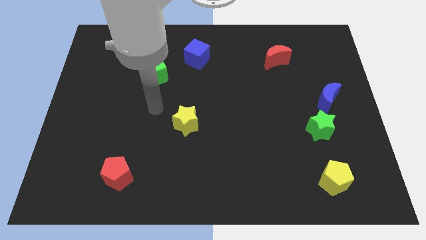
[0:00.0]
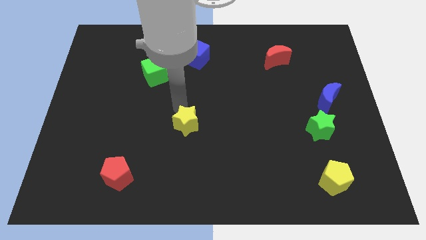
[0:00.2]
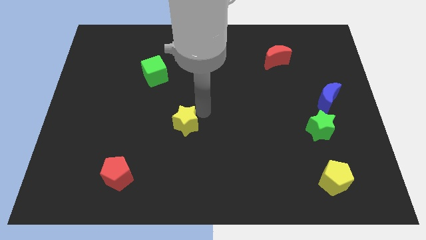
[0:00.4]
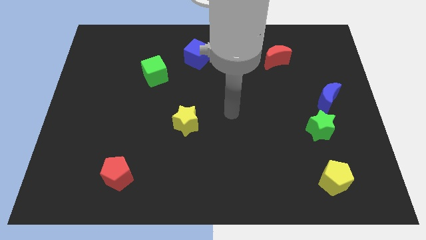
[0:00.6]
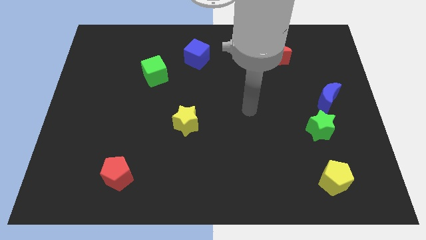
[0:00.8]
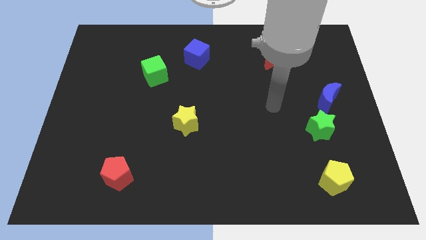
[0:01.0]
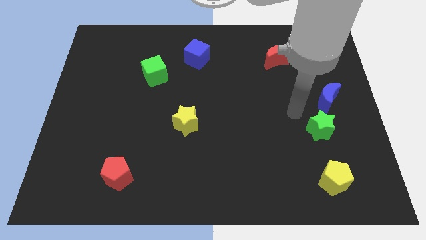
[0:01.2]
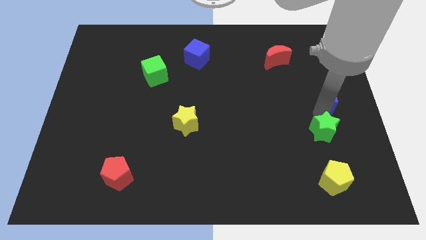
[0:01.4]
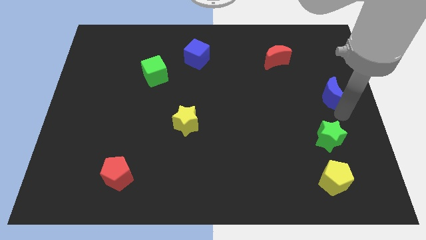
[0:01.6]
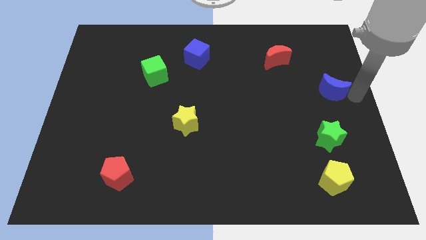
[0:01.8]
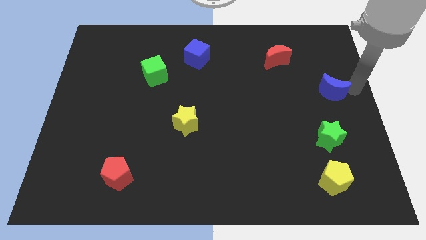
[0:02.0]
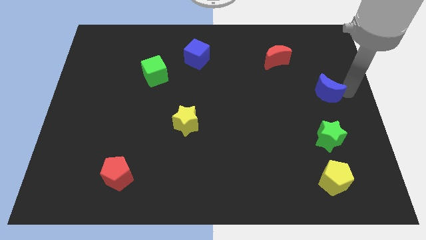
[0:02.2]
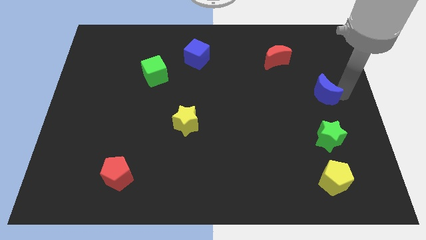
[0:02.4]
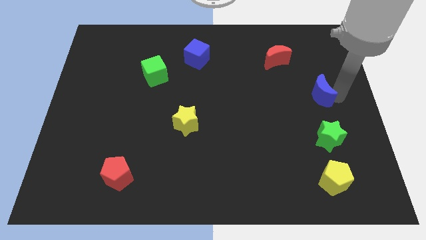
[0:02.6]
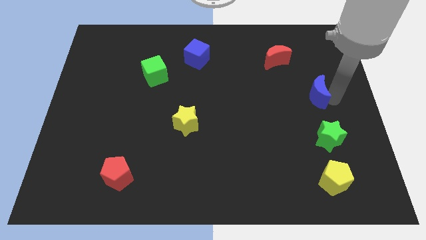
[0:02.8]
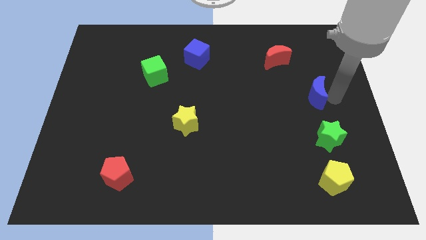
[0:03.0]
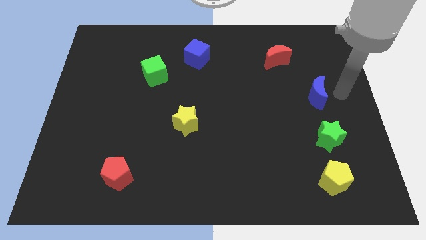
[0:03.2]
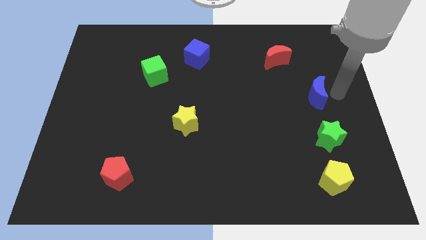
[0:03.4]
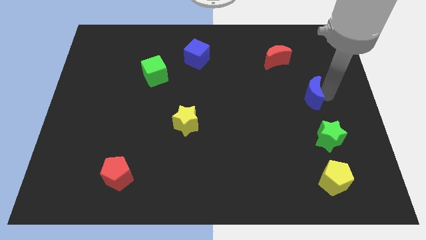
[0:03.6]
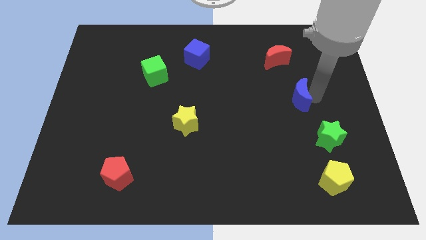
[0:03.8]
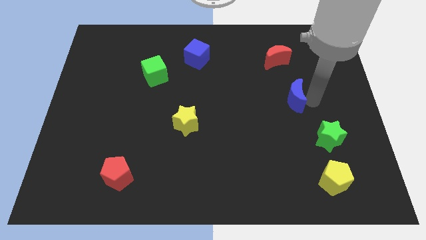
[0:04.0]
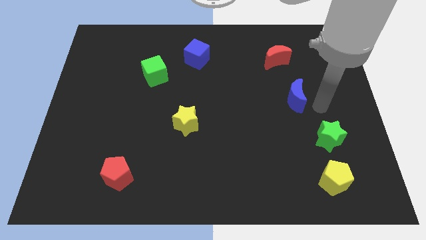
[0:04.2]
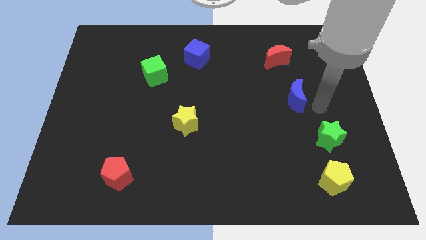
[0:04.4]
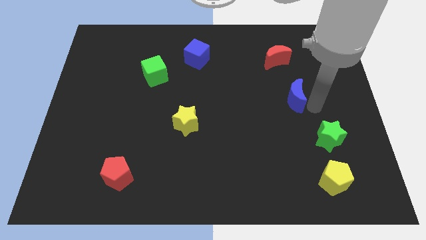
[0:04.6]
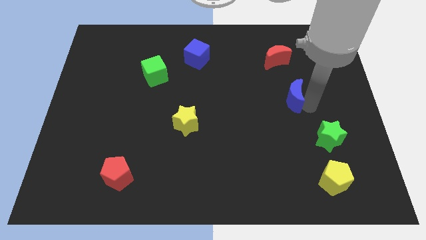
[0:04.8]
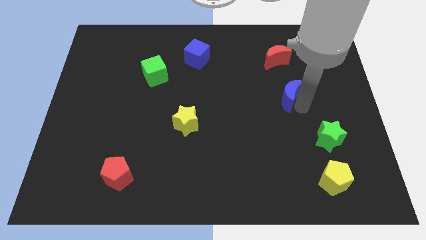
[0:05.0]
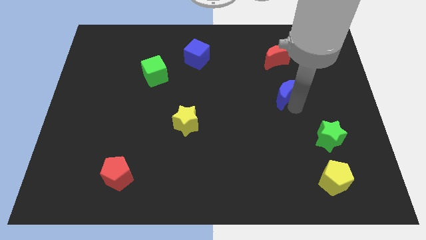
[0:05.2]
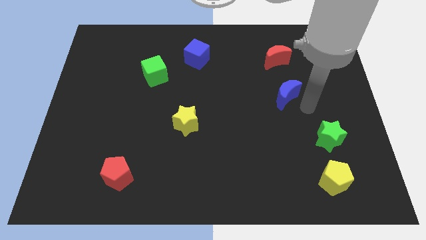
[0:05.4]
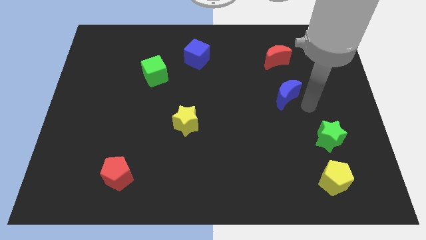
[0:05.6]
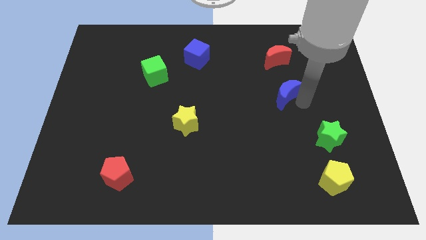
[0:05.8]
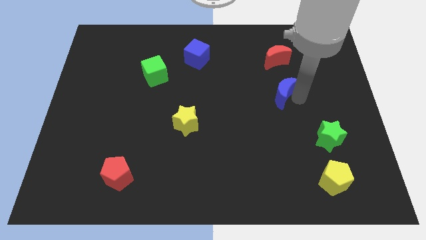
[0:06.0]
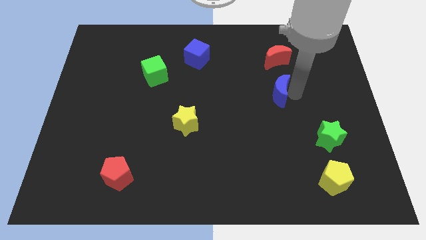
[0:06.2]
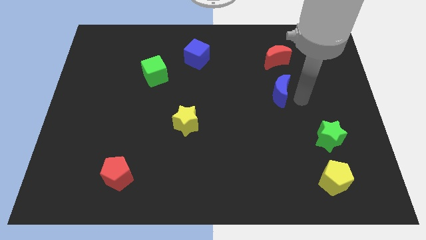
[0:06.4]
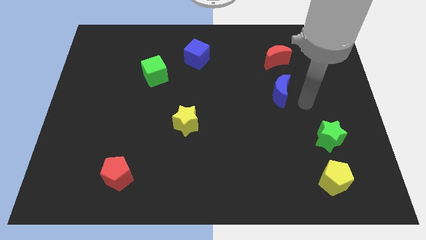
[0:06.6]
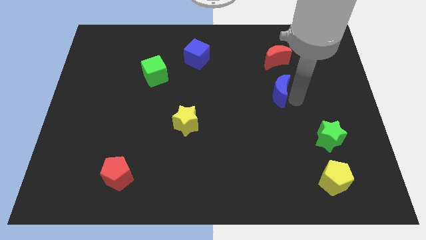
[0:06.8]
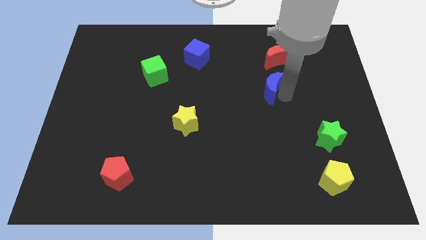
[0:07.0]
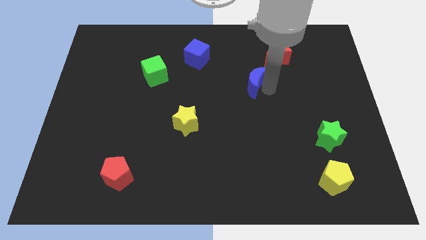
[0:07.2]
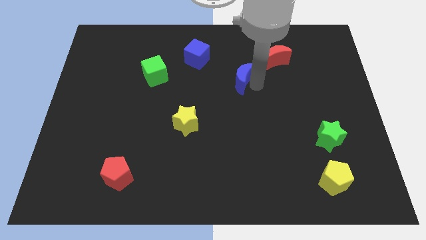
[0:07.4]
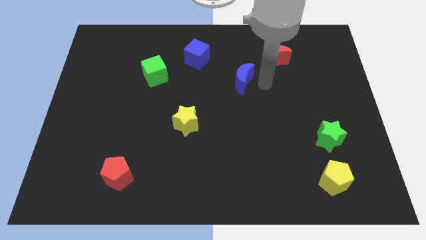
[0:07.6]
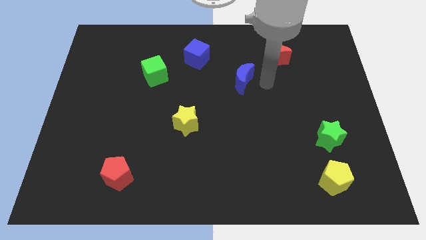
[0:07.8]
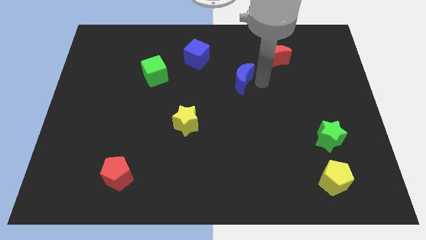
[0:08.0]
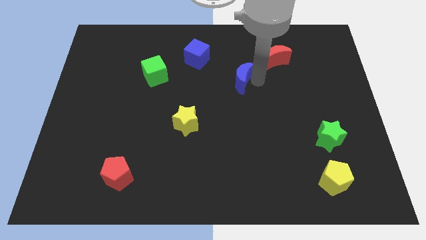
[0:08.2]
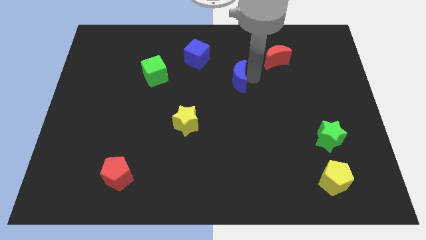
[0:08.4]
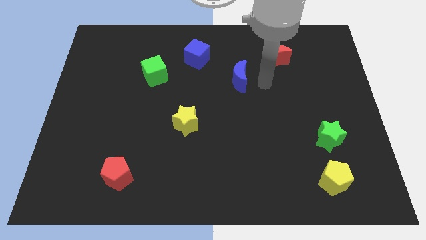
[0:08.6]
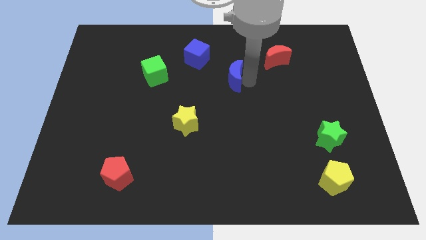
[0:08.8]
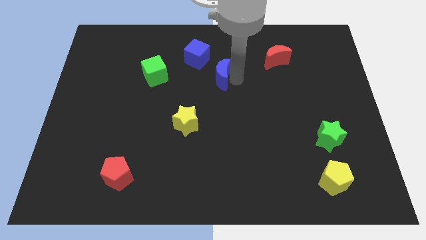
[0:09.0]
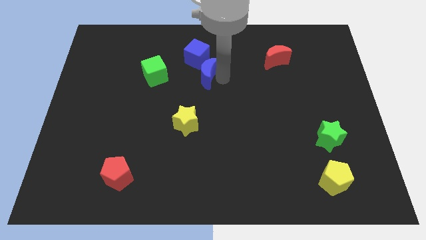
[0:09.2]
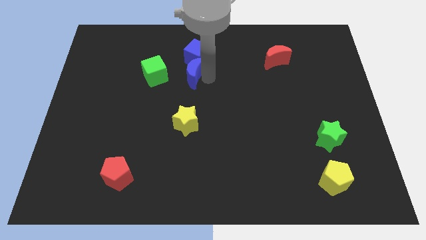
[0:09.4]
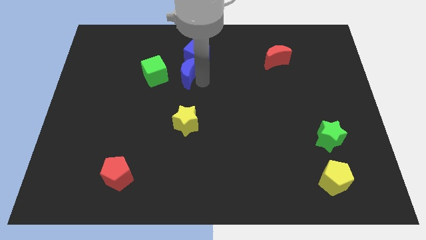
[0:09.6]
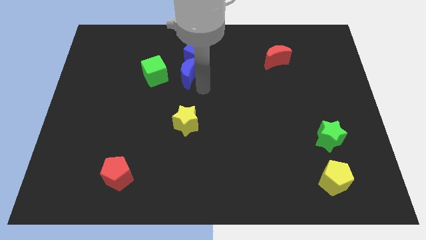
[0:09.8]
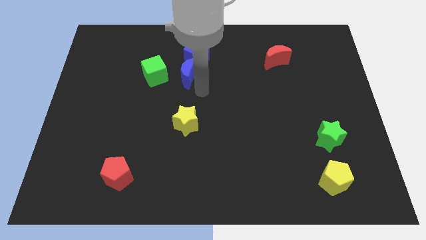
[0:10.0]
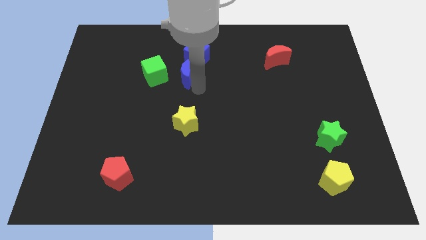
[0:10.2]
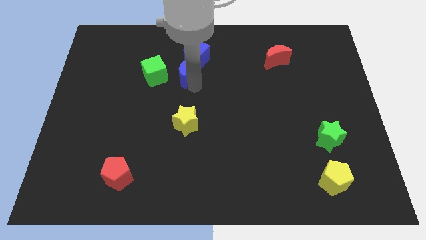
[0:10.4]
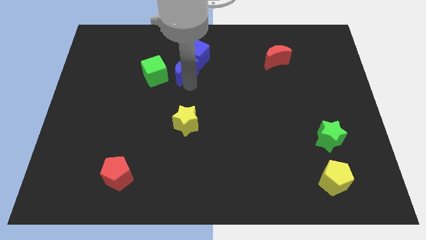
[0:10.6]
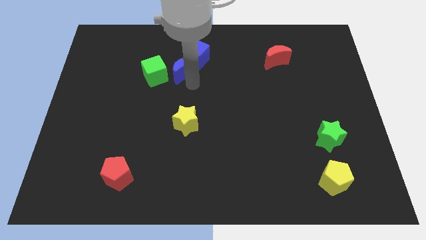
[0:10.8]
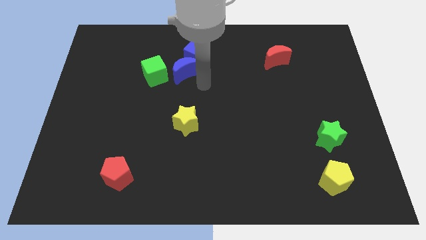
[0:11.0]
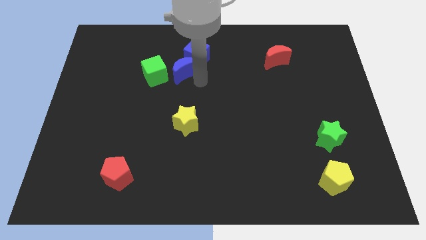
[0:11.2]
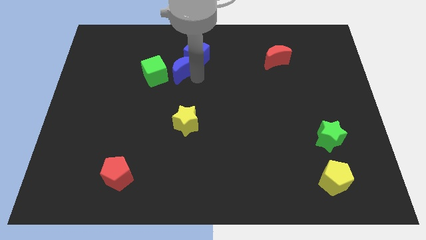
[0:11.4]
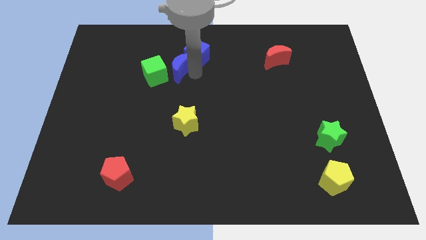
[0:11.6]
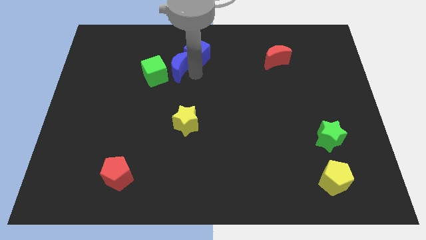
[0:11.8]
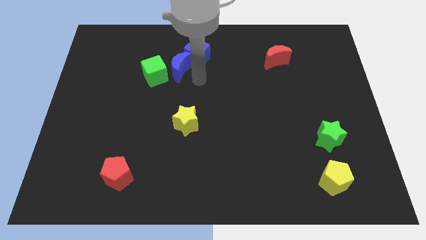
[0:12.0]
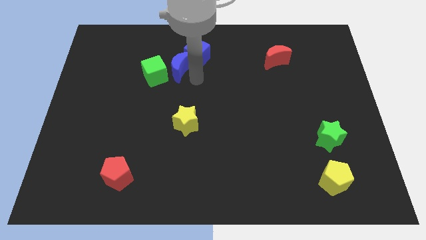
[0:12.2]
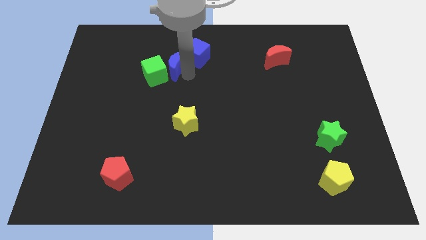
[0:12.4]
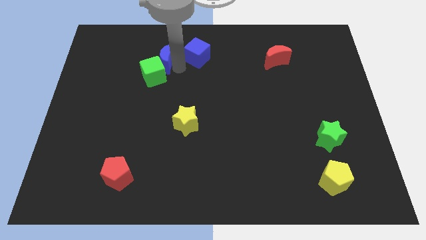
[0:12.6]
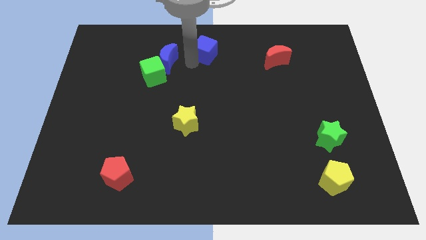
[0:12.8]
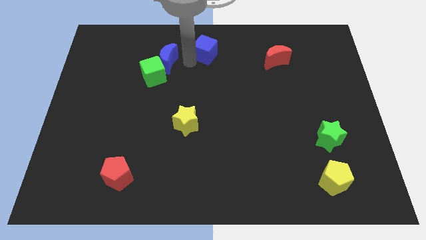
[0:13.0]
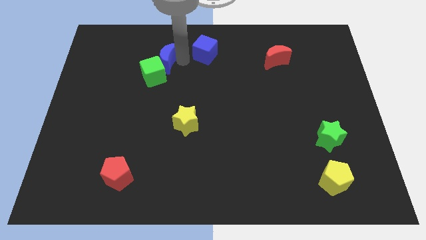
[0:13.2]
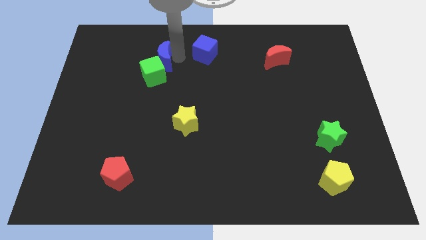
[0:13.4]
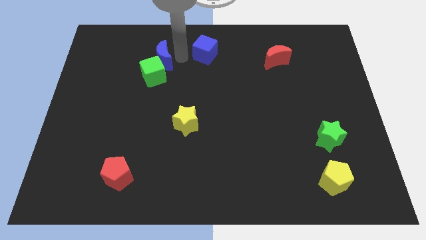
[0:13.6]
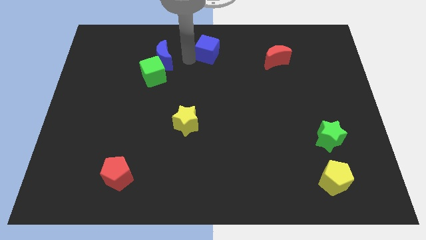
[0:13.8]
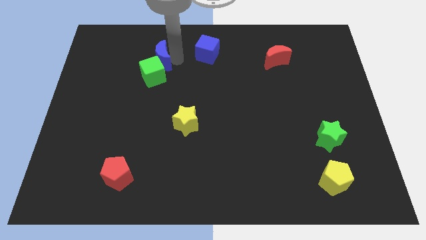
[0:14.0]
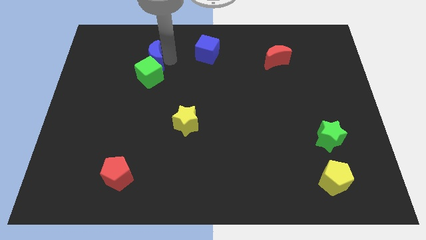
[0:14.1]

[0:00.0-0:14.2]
move the blue moon diagonally up and to the left of the green cube
